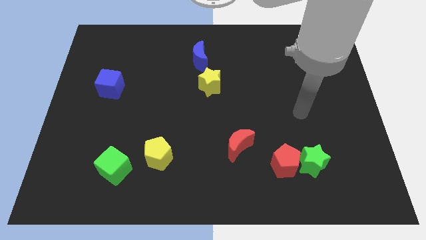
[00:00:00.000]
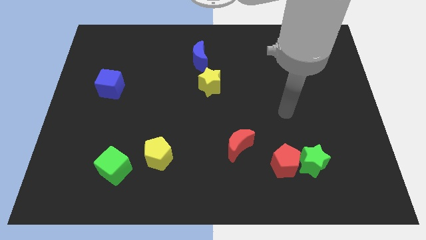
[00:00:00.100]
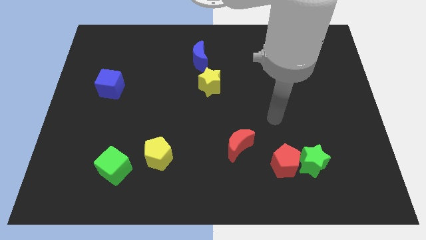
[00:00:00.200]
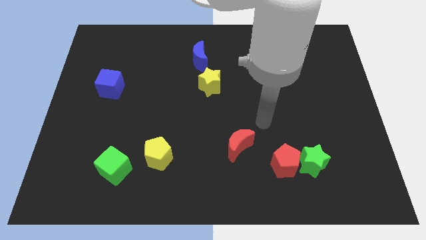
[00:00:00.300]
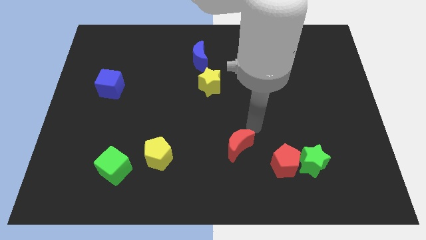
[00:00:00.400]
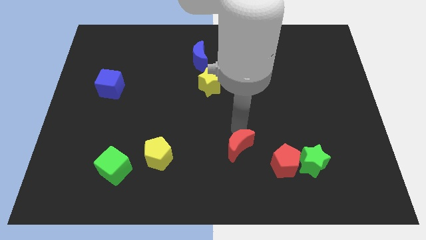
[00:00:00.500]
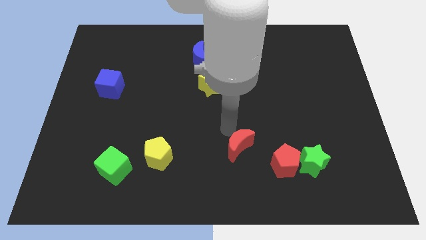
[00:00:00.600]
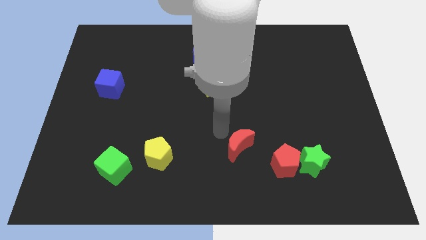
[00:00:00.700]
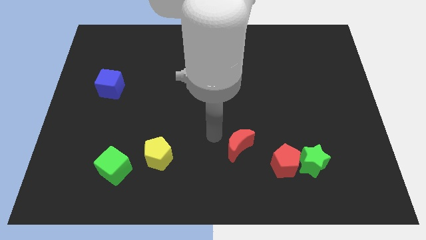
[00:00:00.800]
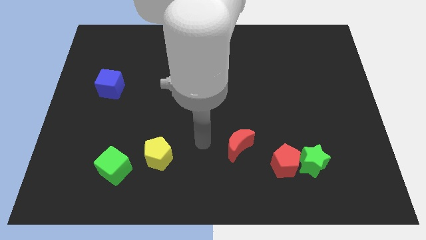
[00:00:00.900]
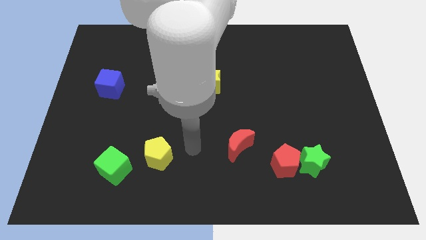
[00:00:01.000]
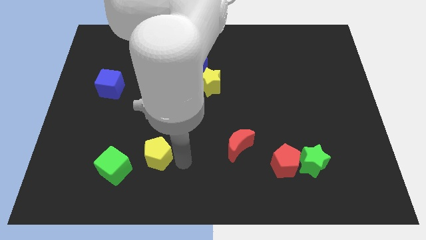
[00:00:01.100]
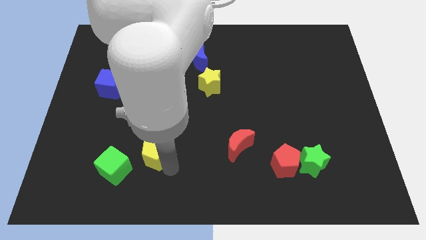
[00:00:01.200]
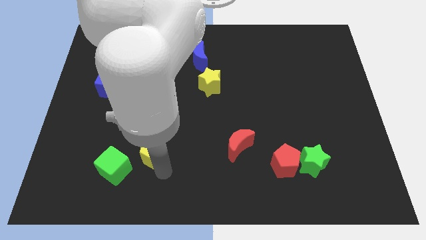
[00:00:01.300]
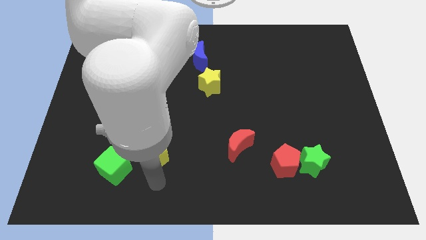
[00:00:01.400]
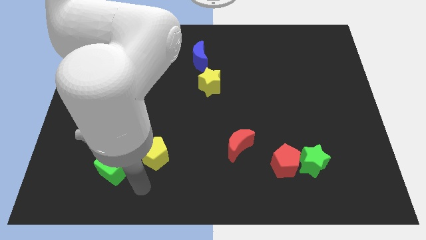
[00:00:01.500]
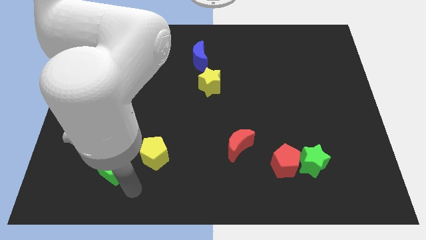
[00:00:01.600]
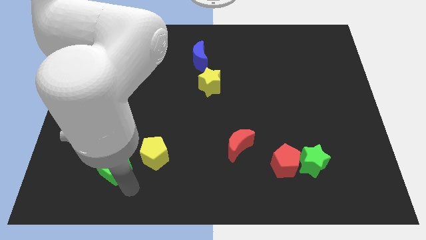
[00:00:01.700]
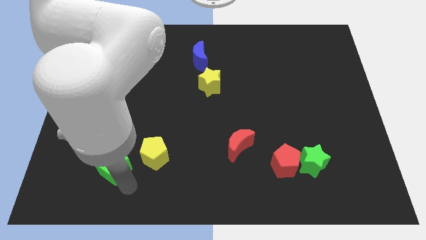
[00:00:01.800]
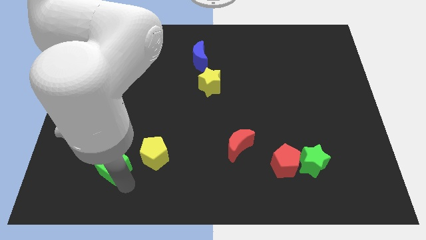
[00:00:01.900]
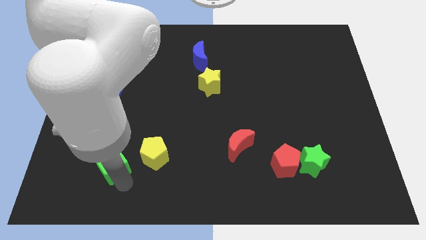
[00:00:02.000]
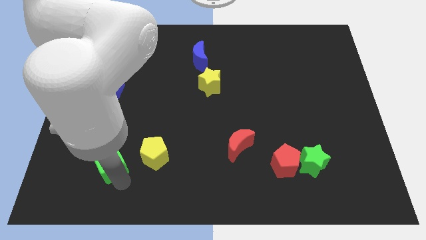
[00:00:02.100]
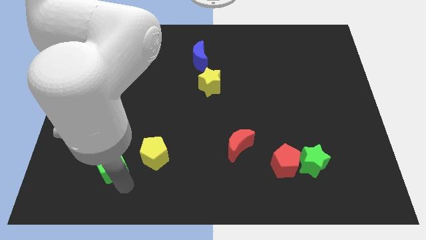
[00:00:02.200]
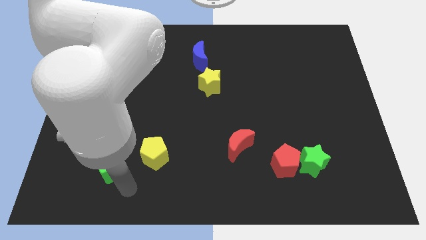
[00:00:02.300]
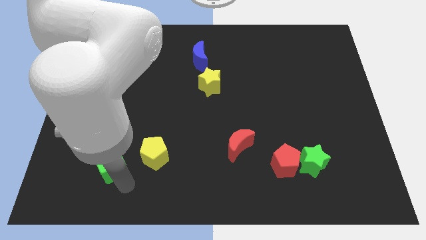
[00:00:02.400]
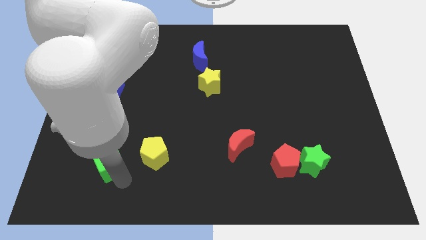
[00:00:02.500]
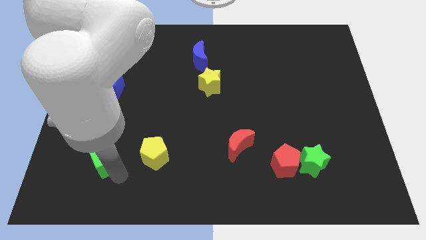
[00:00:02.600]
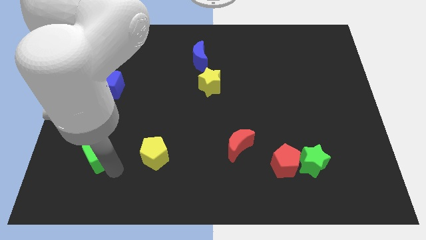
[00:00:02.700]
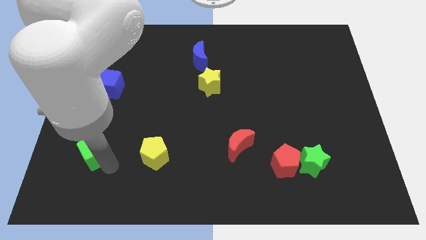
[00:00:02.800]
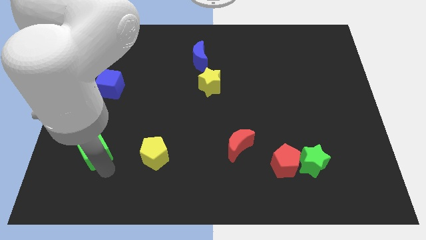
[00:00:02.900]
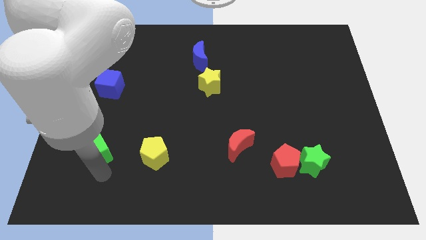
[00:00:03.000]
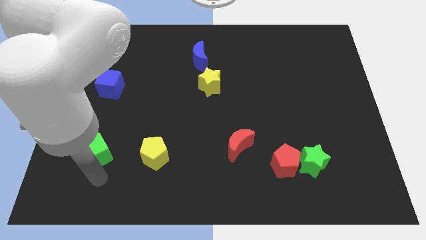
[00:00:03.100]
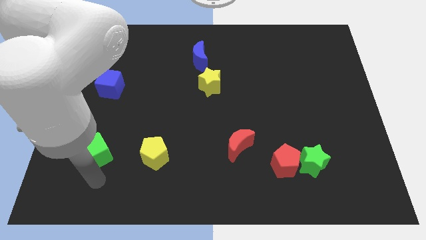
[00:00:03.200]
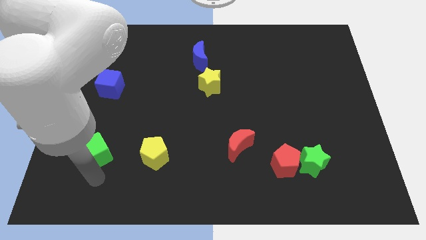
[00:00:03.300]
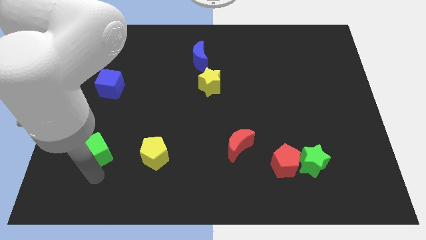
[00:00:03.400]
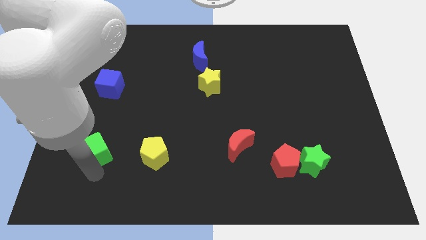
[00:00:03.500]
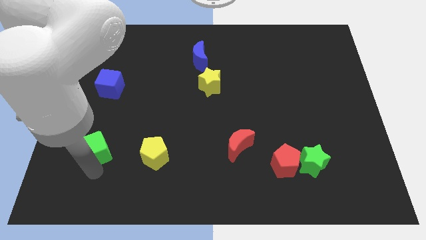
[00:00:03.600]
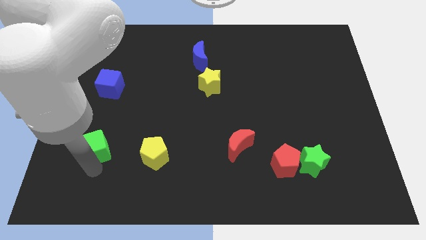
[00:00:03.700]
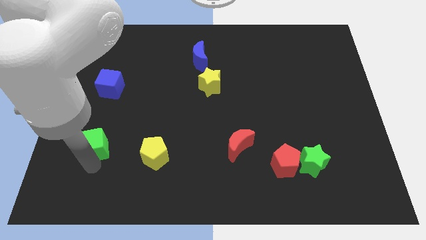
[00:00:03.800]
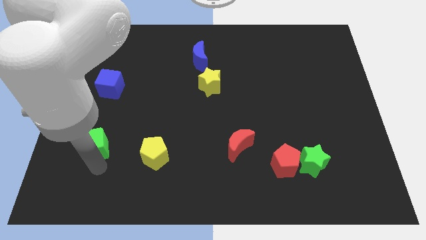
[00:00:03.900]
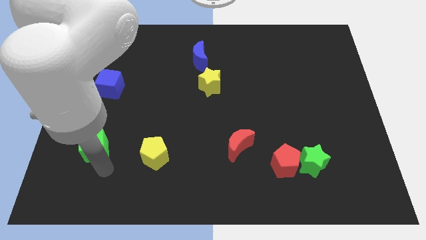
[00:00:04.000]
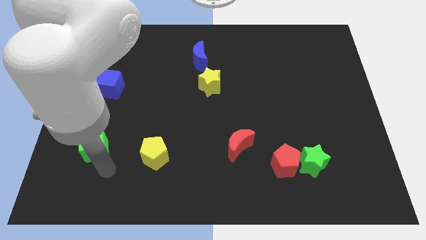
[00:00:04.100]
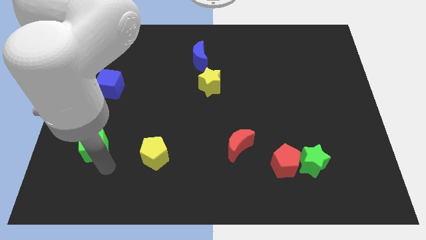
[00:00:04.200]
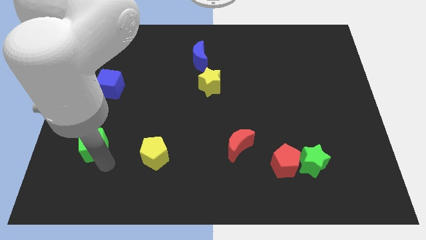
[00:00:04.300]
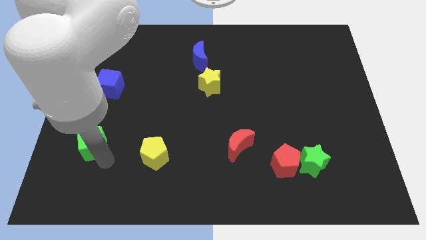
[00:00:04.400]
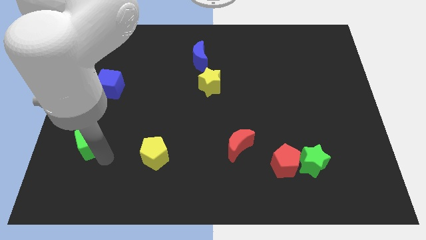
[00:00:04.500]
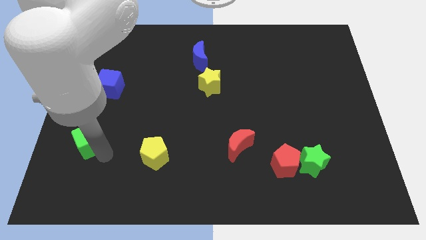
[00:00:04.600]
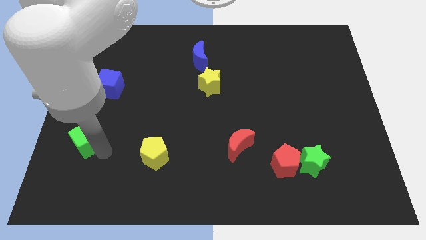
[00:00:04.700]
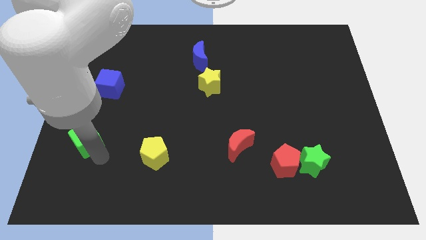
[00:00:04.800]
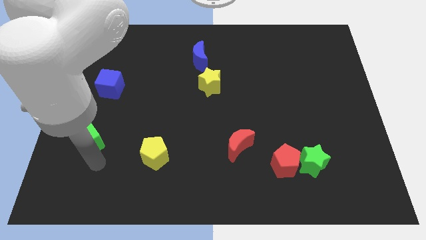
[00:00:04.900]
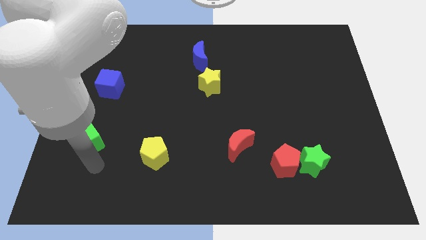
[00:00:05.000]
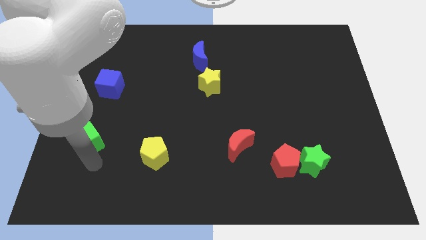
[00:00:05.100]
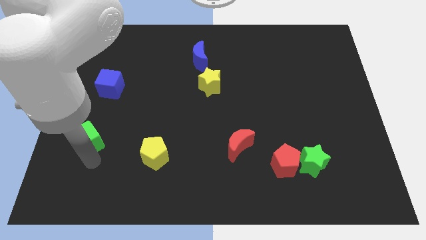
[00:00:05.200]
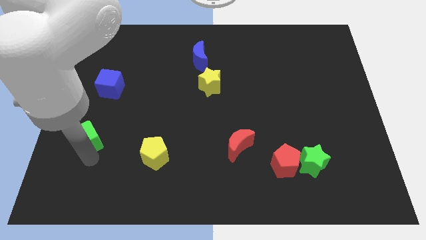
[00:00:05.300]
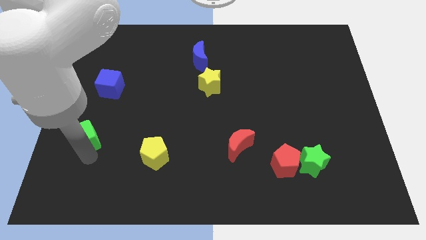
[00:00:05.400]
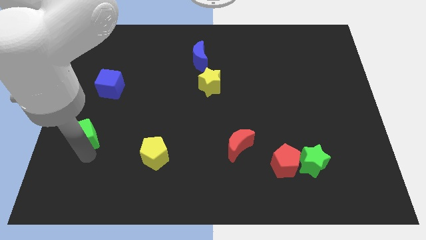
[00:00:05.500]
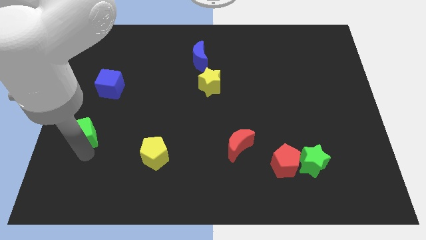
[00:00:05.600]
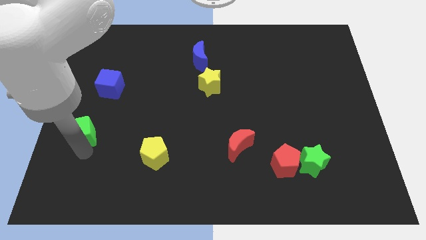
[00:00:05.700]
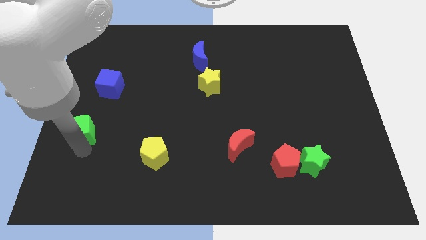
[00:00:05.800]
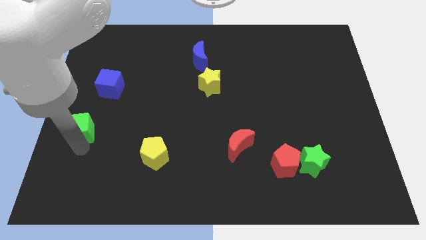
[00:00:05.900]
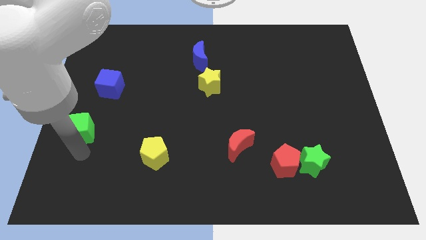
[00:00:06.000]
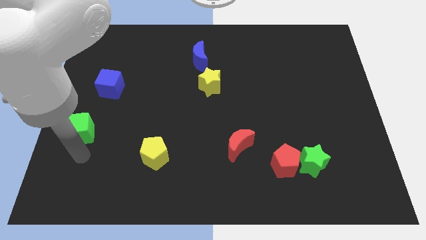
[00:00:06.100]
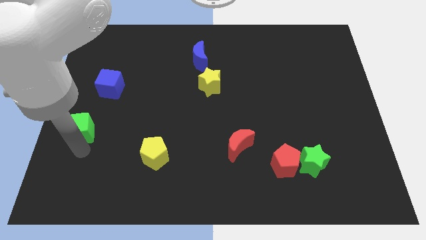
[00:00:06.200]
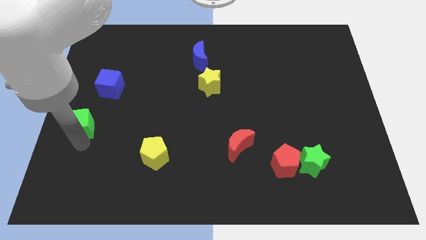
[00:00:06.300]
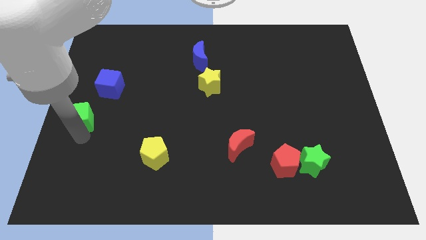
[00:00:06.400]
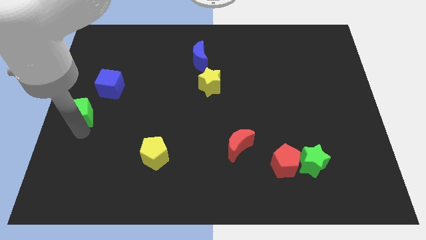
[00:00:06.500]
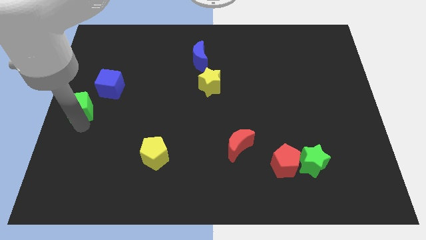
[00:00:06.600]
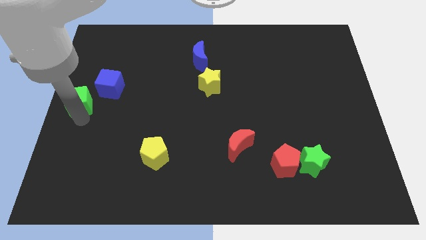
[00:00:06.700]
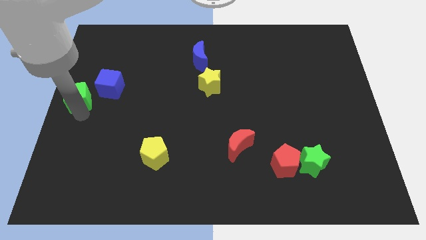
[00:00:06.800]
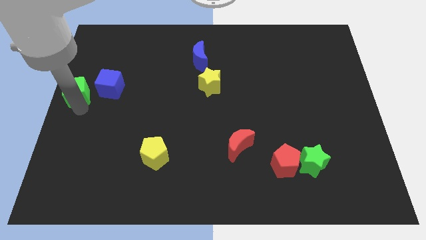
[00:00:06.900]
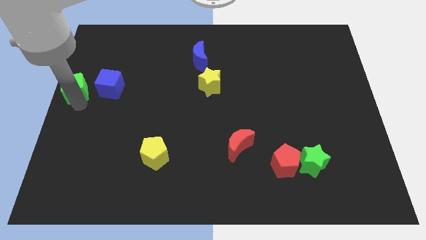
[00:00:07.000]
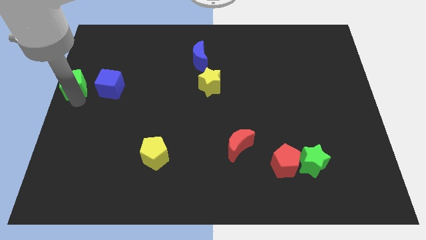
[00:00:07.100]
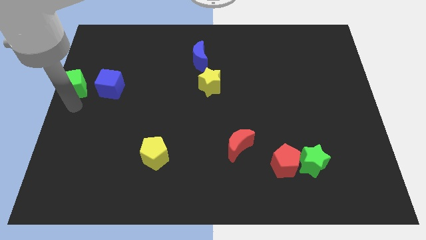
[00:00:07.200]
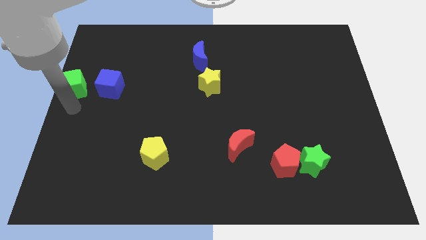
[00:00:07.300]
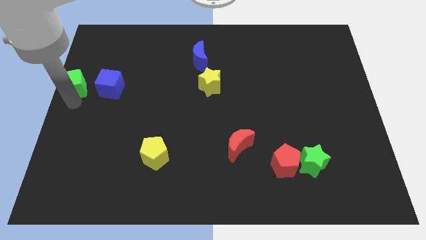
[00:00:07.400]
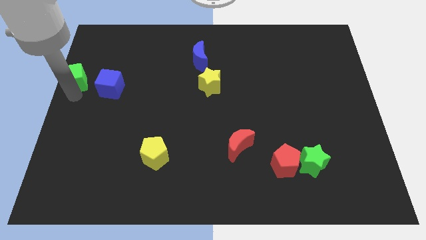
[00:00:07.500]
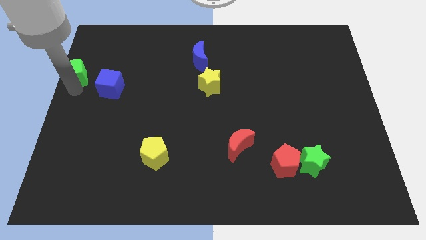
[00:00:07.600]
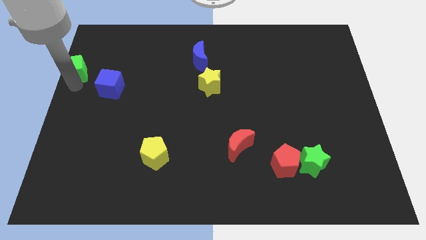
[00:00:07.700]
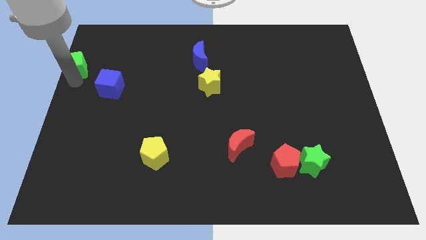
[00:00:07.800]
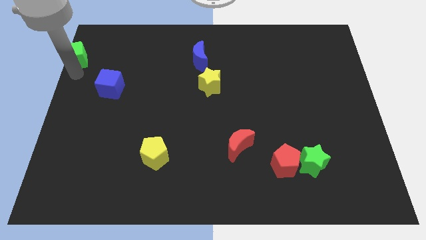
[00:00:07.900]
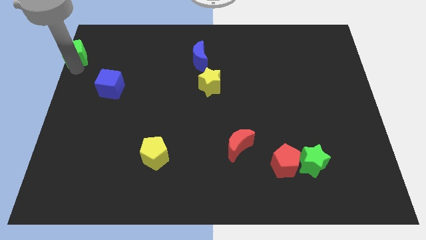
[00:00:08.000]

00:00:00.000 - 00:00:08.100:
put the green cube to the top left of the board
